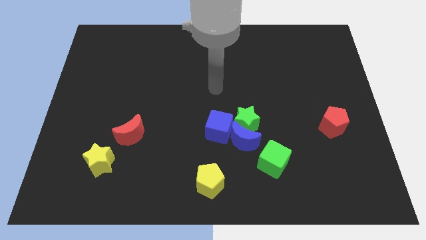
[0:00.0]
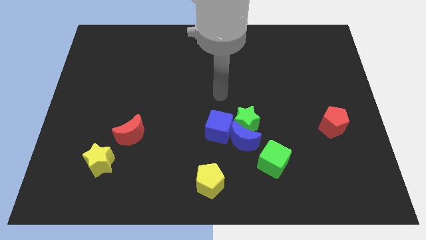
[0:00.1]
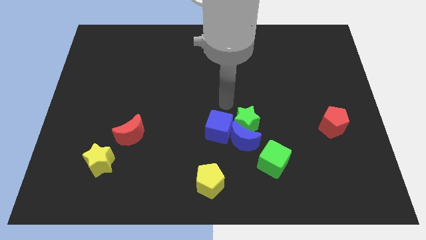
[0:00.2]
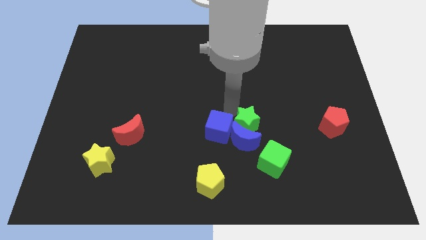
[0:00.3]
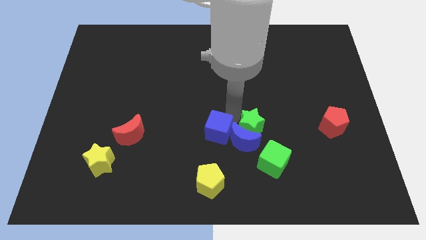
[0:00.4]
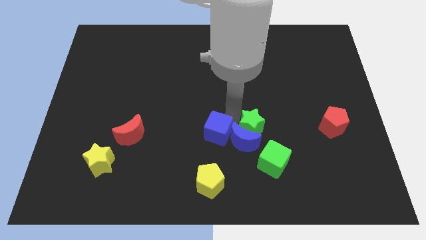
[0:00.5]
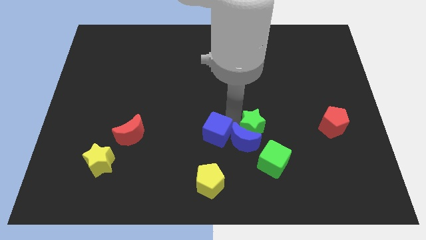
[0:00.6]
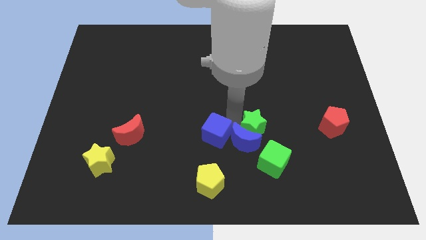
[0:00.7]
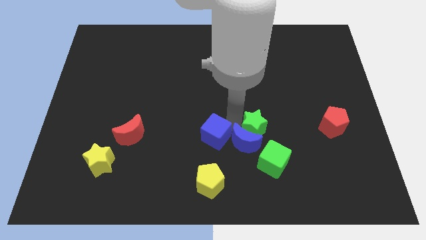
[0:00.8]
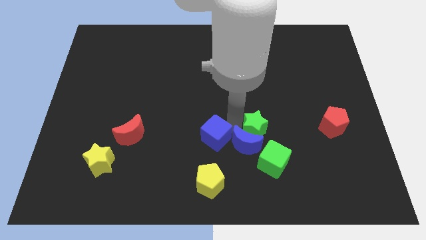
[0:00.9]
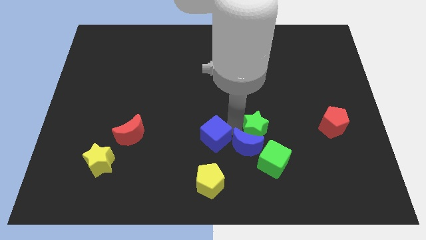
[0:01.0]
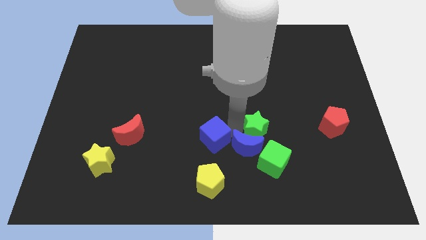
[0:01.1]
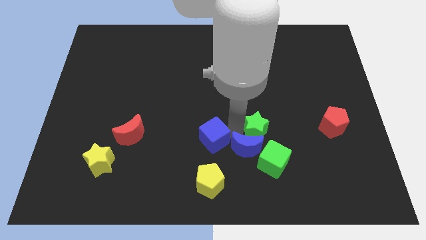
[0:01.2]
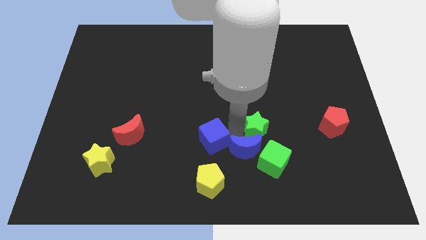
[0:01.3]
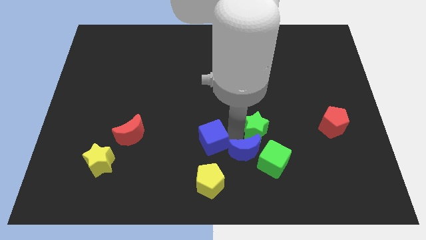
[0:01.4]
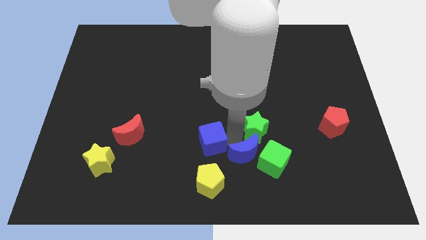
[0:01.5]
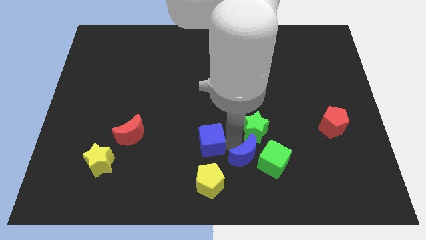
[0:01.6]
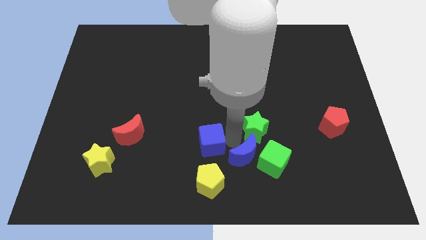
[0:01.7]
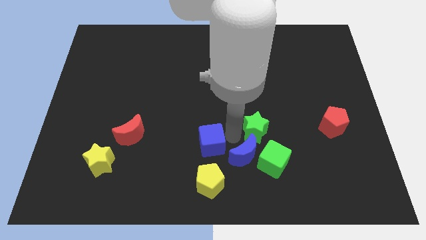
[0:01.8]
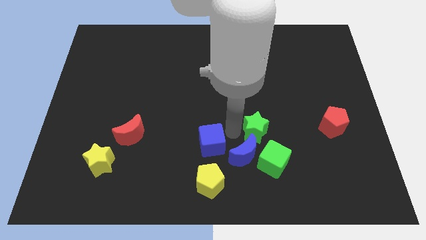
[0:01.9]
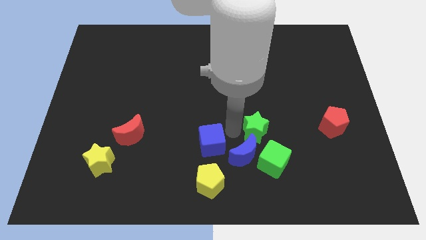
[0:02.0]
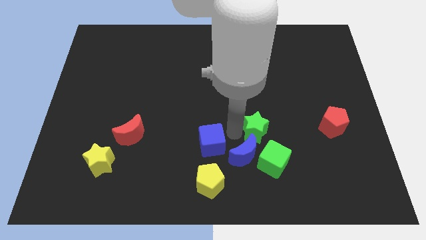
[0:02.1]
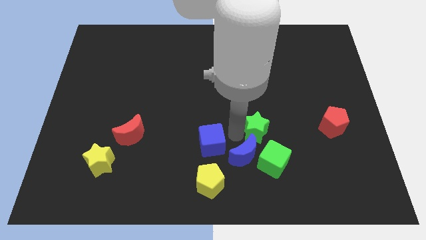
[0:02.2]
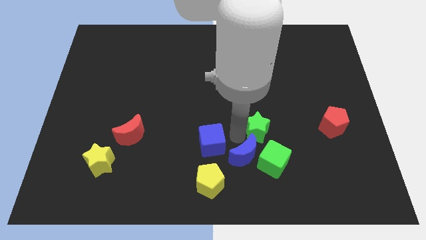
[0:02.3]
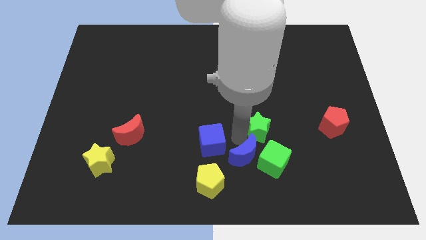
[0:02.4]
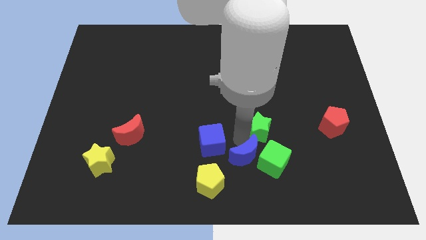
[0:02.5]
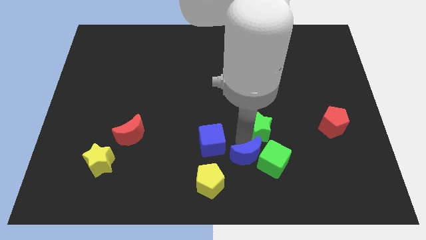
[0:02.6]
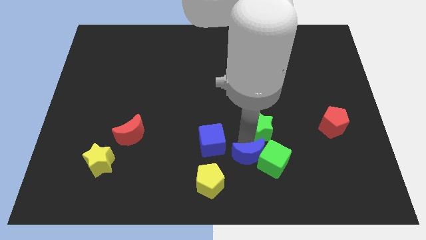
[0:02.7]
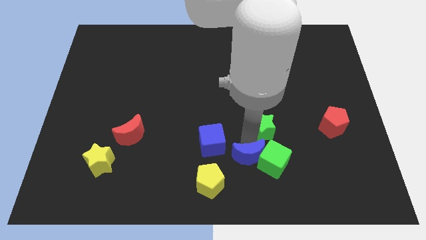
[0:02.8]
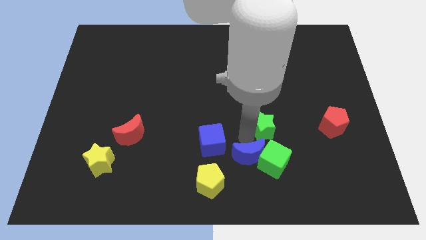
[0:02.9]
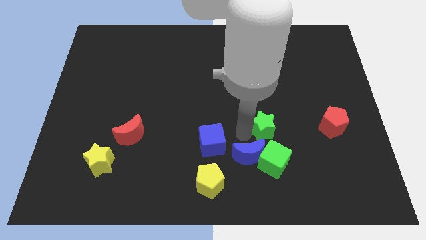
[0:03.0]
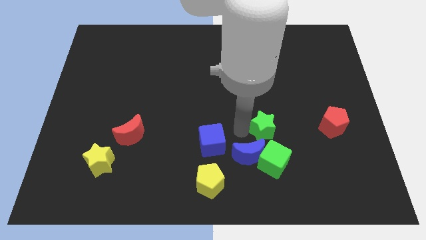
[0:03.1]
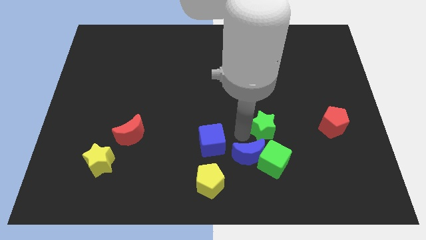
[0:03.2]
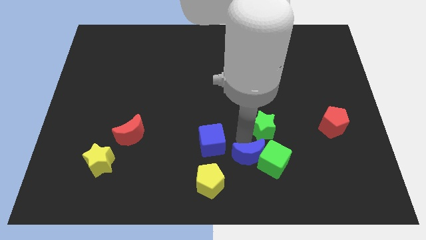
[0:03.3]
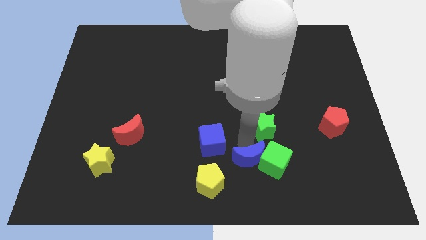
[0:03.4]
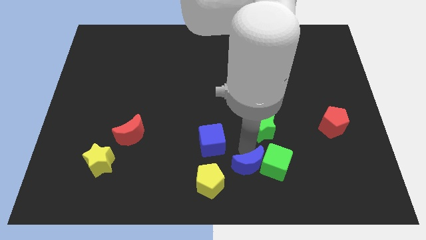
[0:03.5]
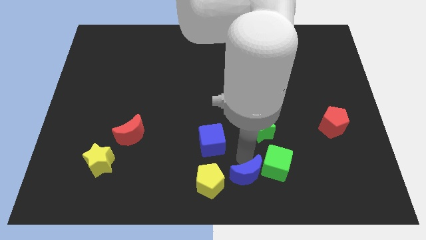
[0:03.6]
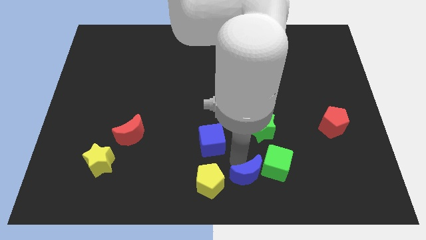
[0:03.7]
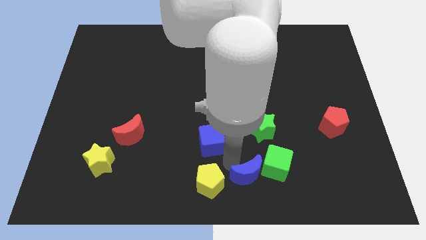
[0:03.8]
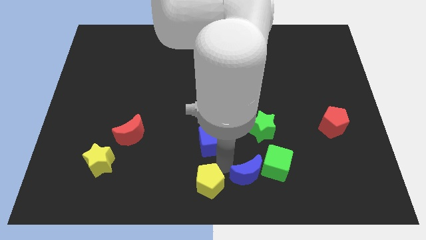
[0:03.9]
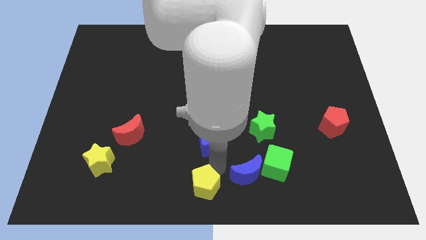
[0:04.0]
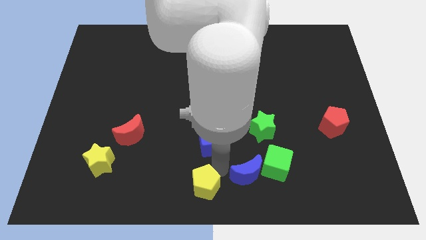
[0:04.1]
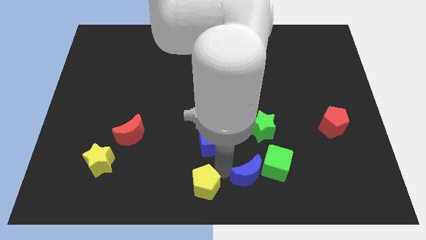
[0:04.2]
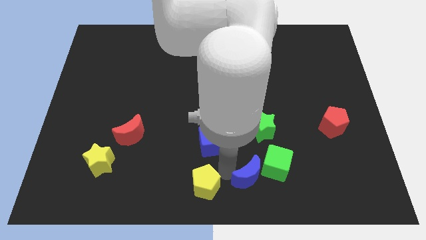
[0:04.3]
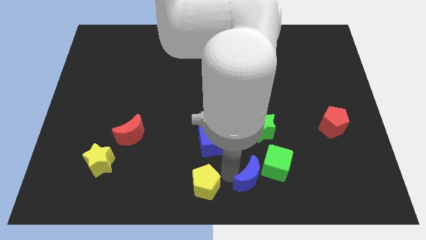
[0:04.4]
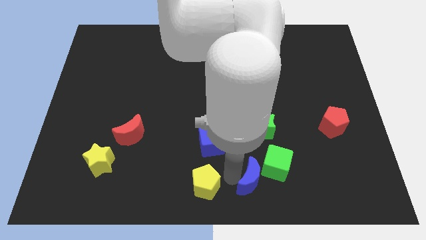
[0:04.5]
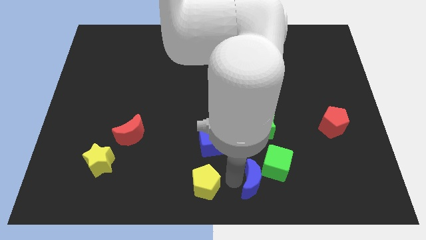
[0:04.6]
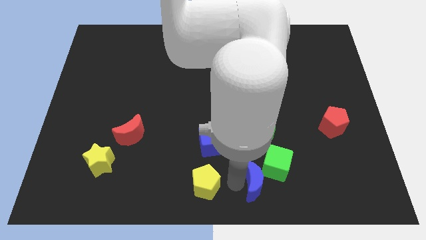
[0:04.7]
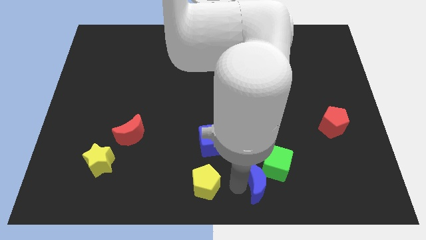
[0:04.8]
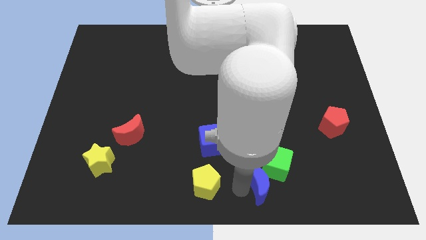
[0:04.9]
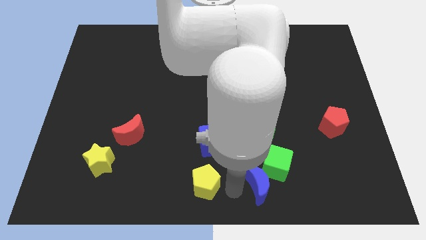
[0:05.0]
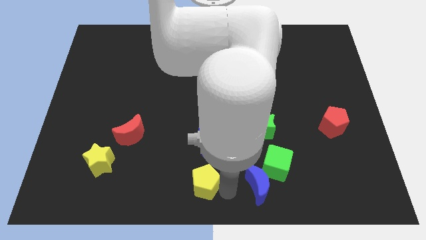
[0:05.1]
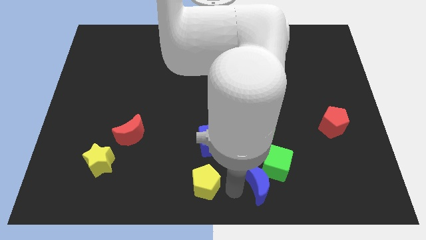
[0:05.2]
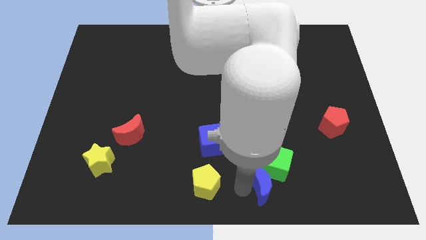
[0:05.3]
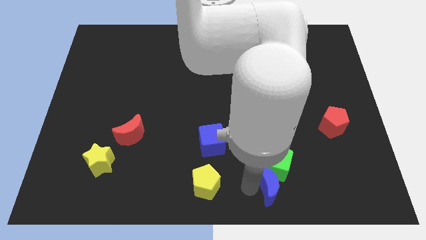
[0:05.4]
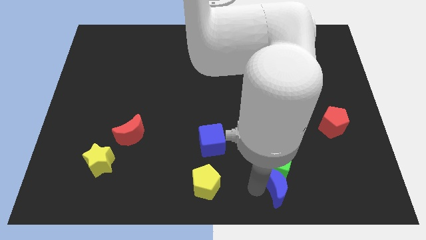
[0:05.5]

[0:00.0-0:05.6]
put the blue moon to the bottom right side of the green cube

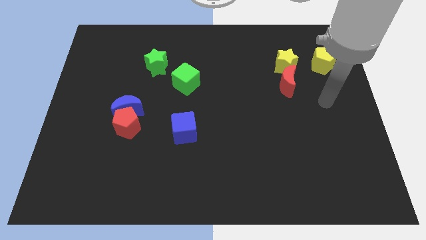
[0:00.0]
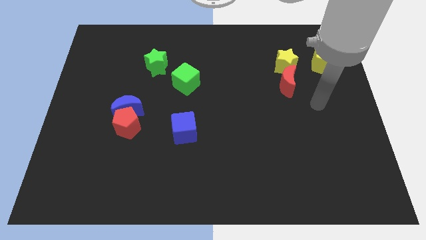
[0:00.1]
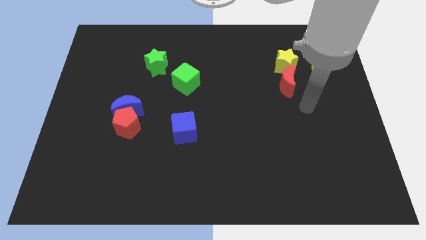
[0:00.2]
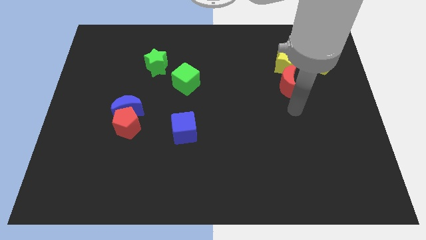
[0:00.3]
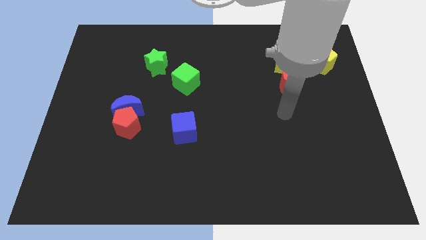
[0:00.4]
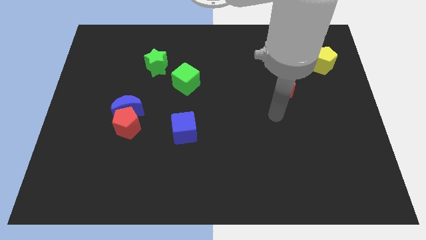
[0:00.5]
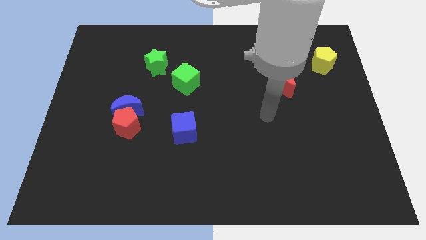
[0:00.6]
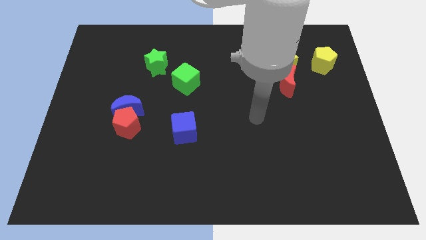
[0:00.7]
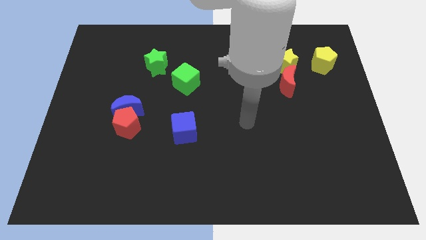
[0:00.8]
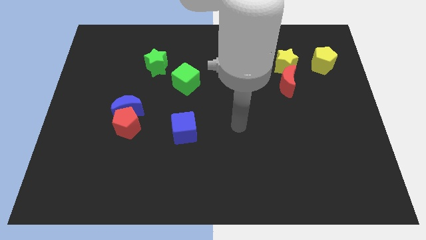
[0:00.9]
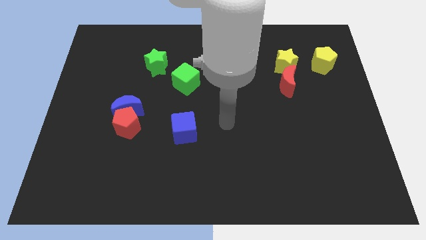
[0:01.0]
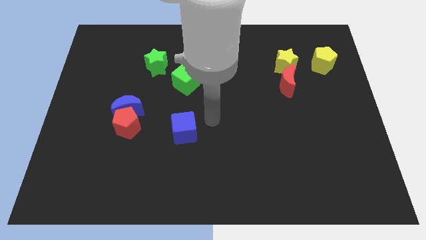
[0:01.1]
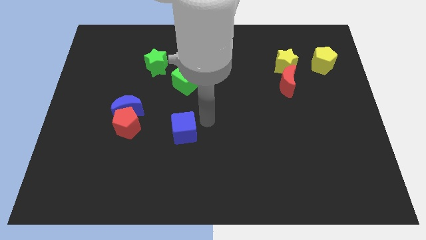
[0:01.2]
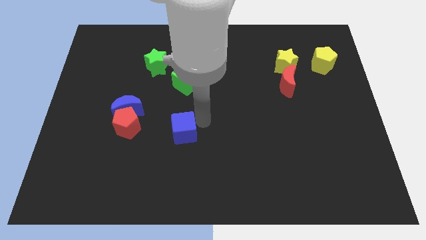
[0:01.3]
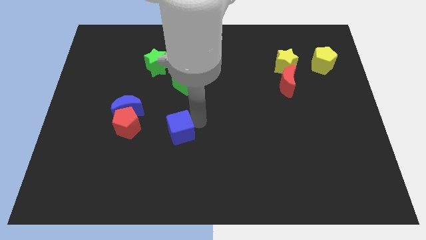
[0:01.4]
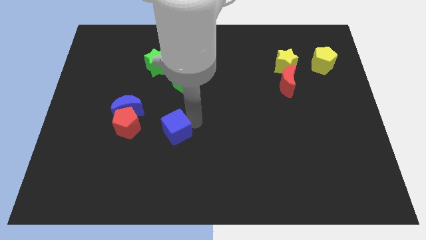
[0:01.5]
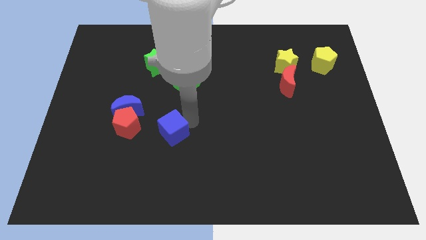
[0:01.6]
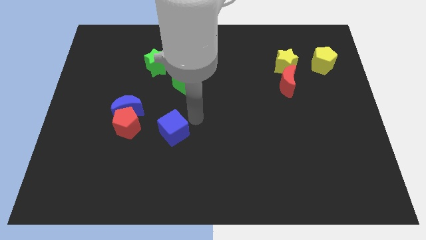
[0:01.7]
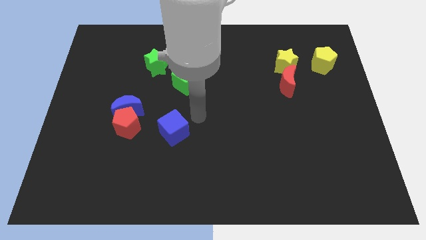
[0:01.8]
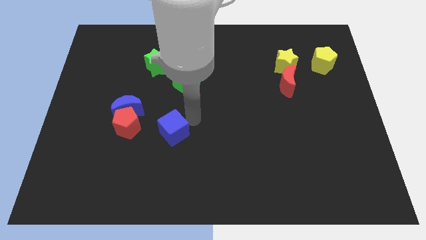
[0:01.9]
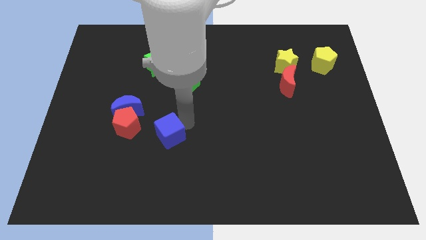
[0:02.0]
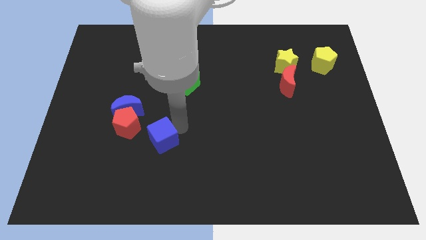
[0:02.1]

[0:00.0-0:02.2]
put the blue cube to the bottom right of the red pentagon
